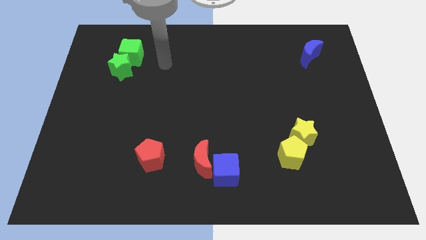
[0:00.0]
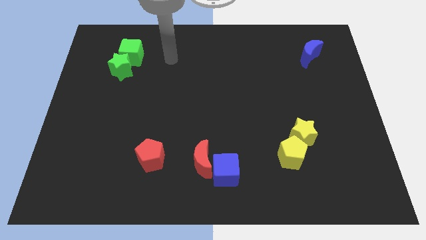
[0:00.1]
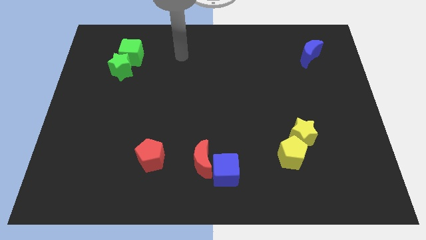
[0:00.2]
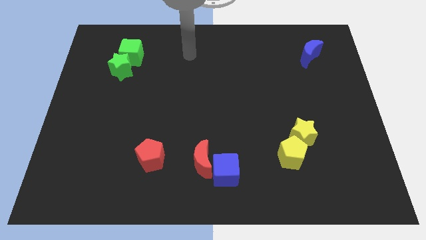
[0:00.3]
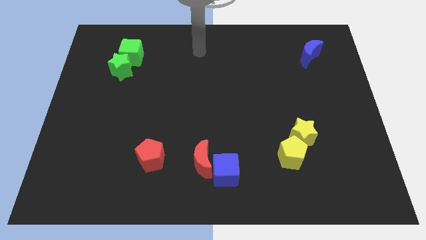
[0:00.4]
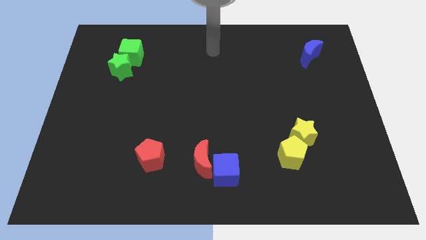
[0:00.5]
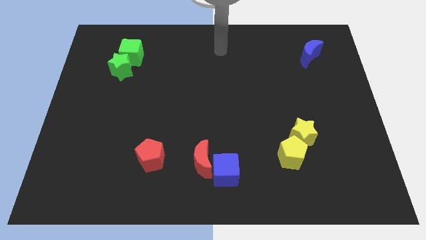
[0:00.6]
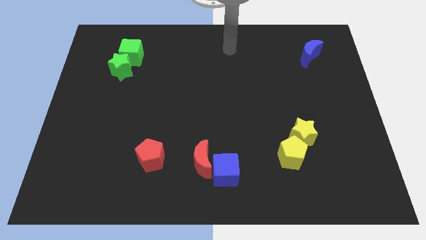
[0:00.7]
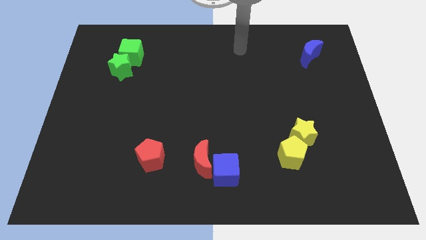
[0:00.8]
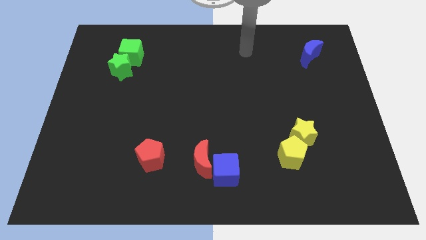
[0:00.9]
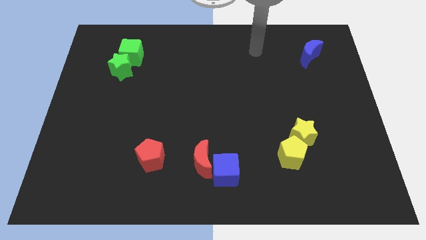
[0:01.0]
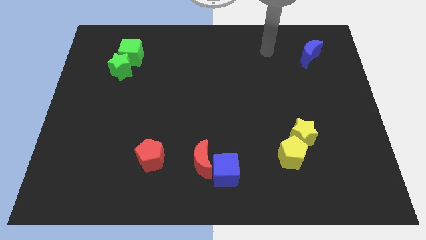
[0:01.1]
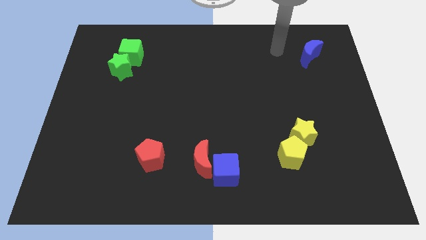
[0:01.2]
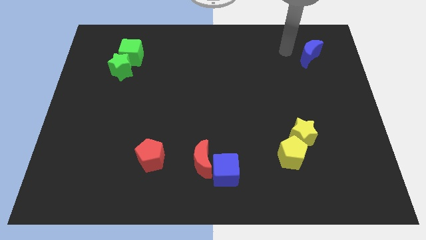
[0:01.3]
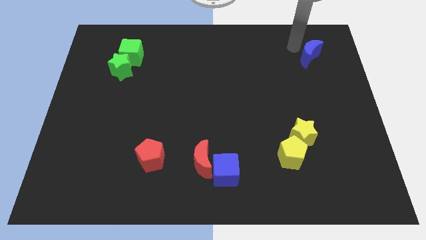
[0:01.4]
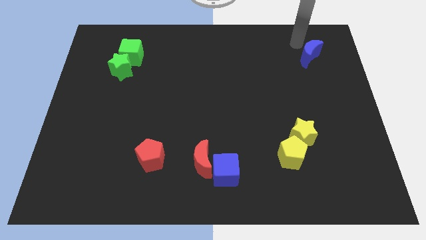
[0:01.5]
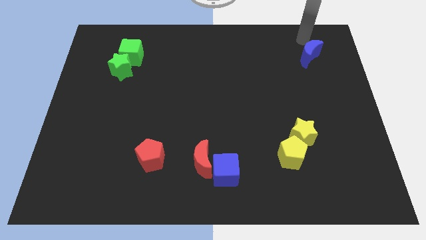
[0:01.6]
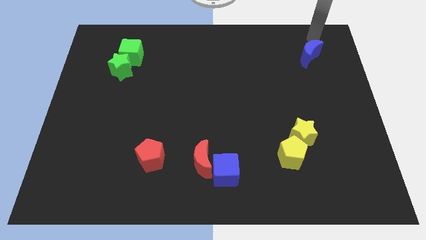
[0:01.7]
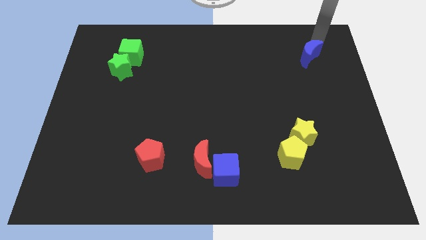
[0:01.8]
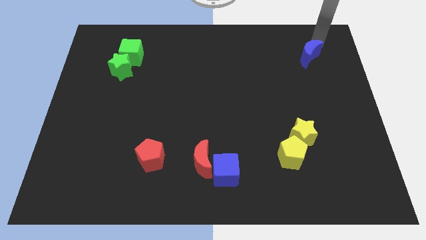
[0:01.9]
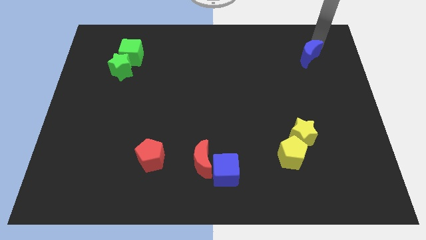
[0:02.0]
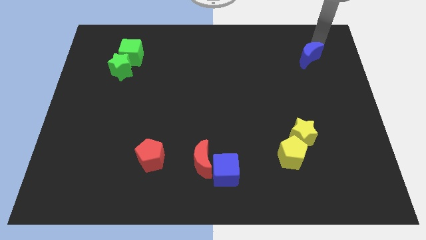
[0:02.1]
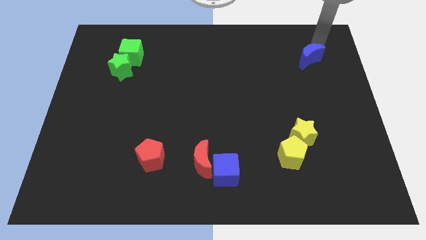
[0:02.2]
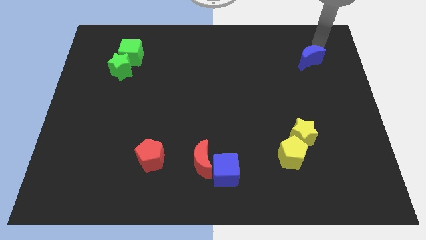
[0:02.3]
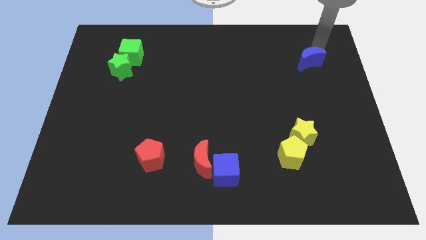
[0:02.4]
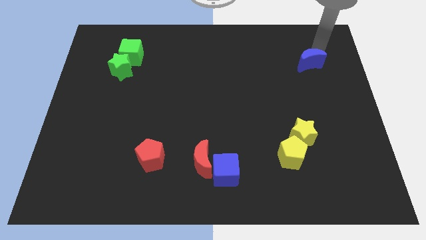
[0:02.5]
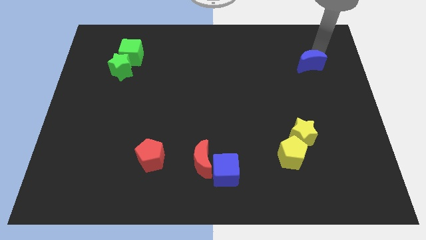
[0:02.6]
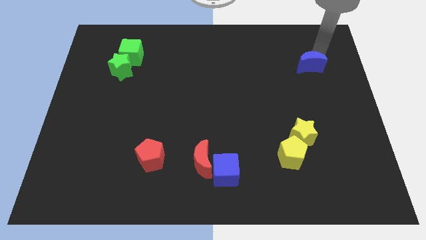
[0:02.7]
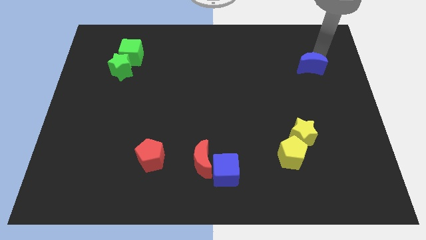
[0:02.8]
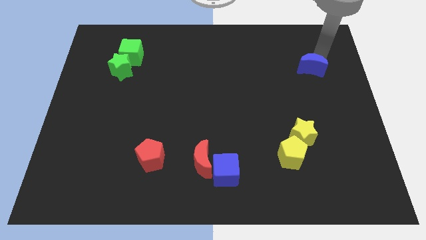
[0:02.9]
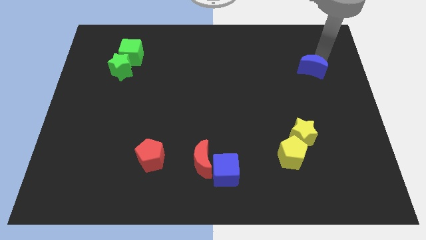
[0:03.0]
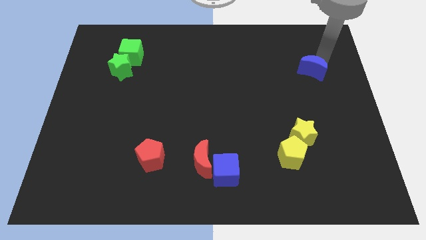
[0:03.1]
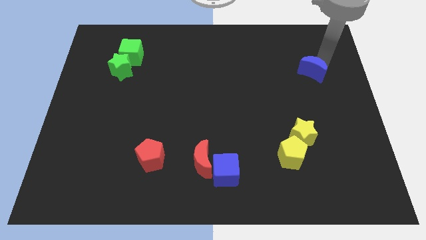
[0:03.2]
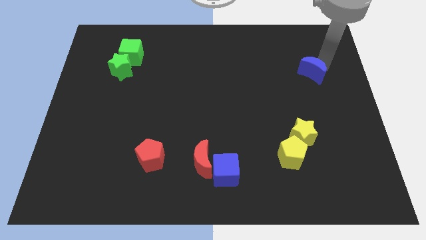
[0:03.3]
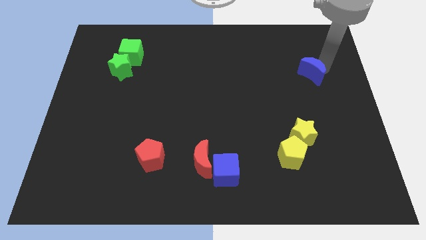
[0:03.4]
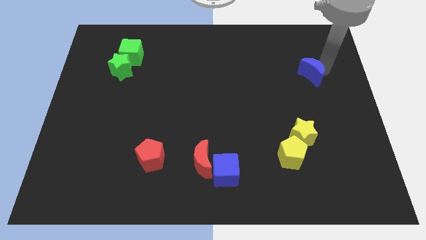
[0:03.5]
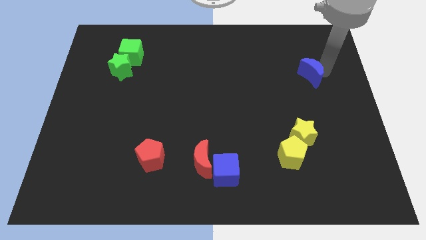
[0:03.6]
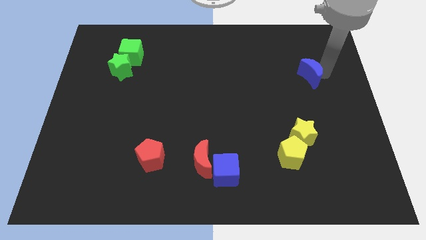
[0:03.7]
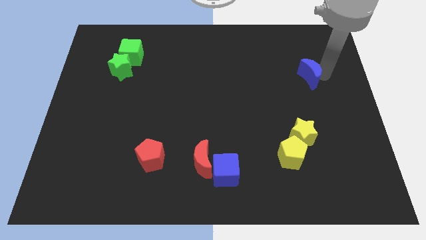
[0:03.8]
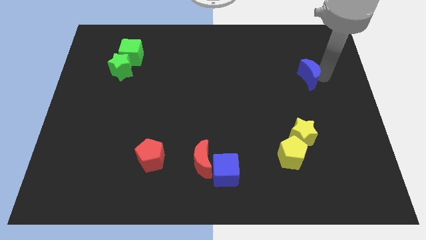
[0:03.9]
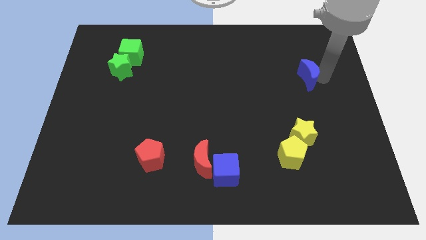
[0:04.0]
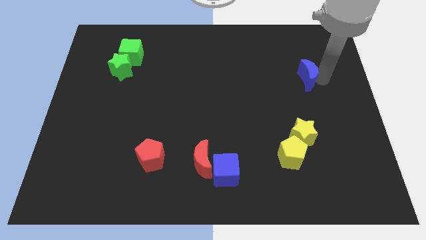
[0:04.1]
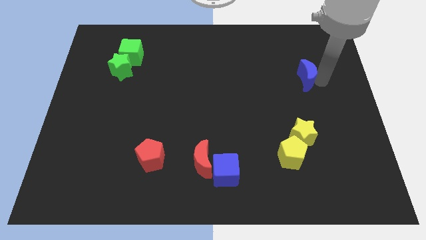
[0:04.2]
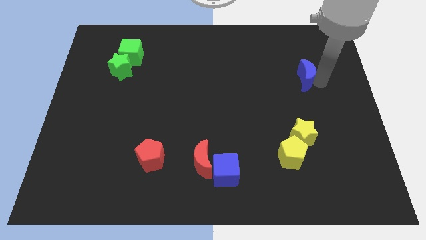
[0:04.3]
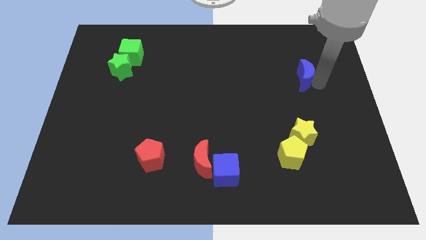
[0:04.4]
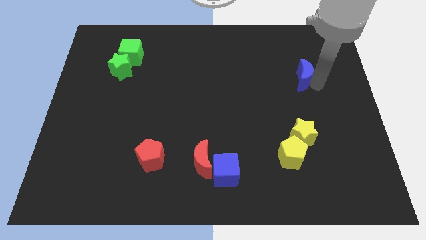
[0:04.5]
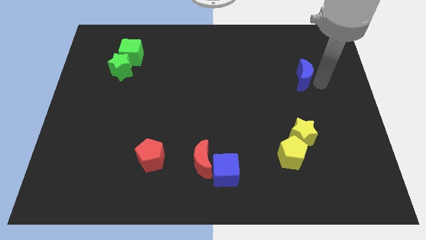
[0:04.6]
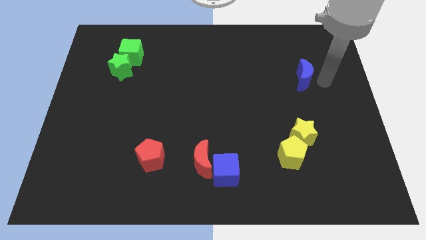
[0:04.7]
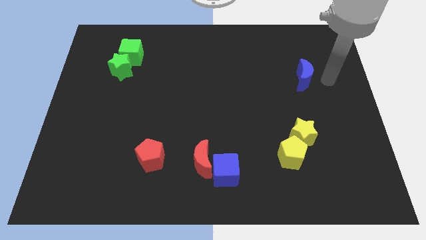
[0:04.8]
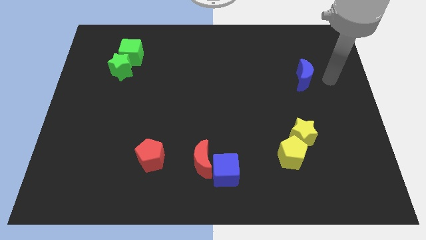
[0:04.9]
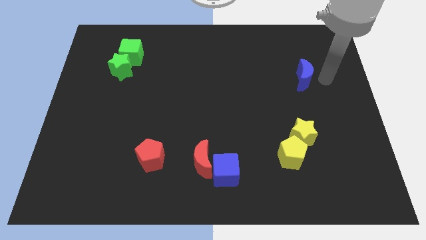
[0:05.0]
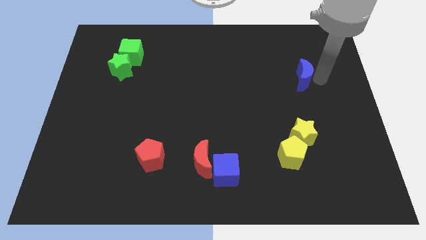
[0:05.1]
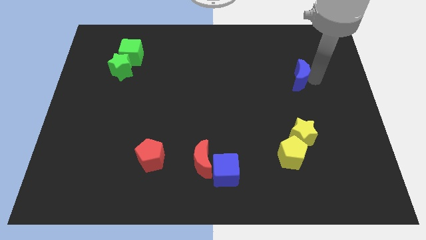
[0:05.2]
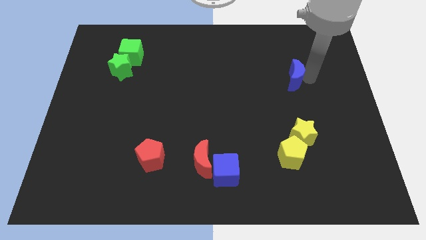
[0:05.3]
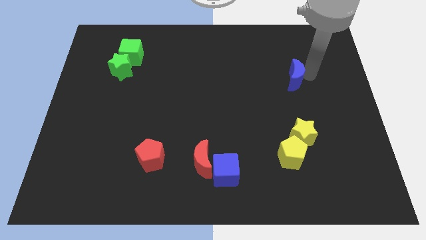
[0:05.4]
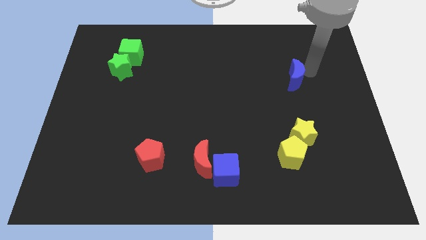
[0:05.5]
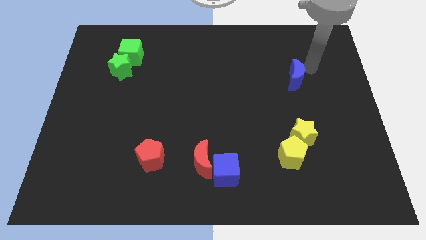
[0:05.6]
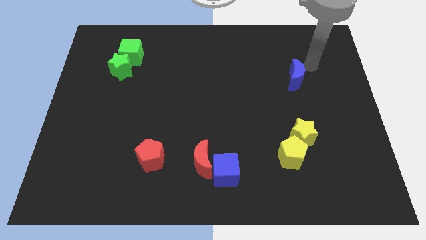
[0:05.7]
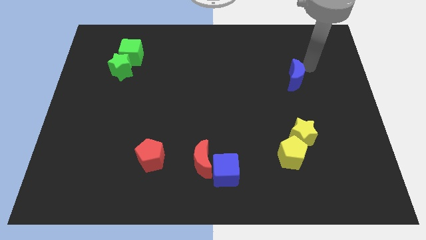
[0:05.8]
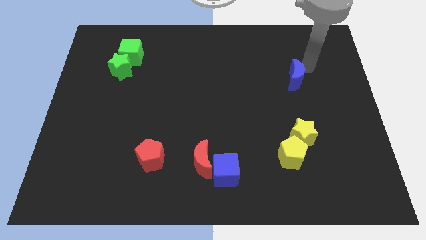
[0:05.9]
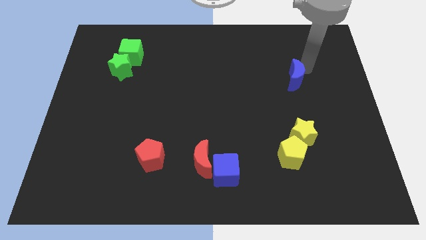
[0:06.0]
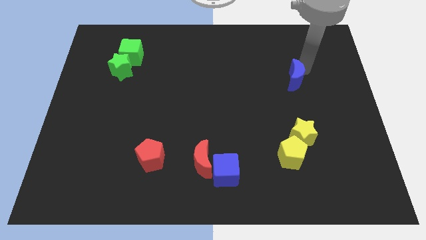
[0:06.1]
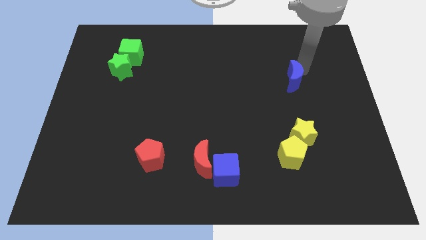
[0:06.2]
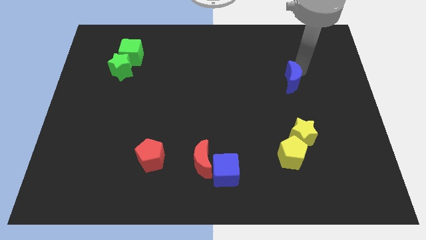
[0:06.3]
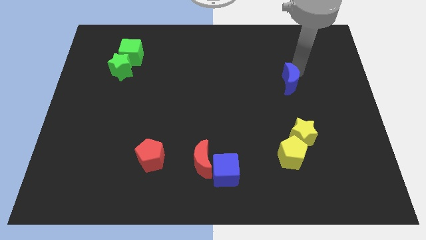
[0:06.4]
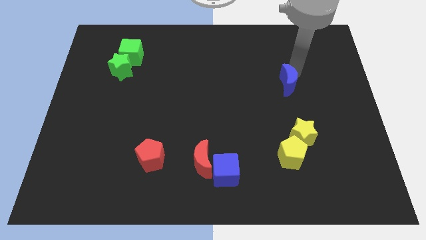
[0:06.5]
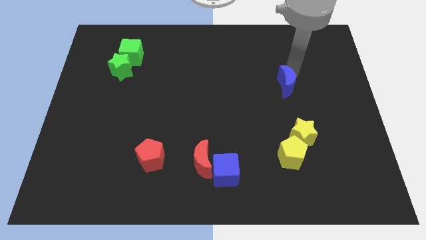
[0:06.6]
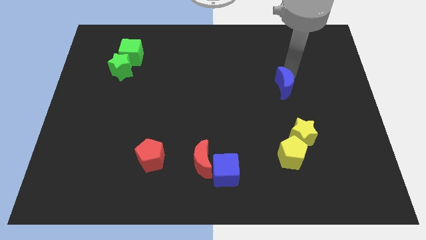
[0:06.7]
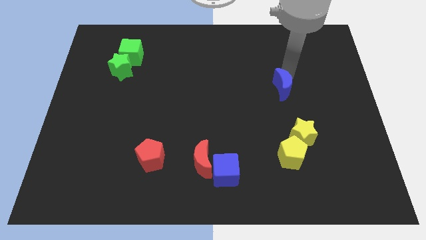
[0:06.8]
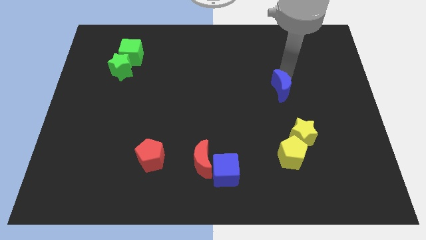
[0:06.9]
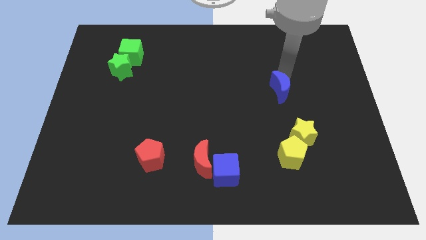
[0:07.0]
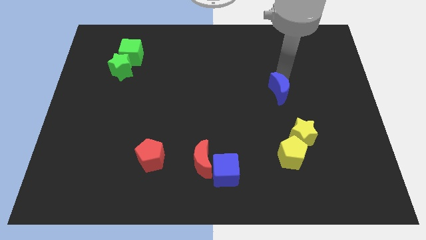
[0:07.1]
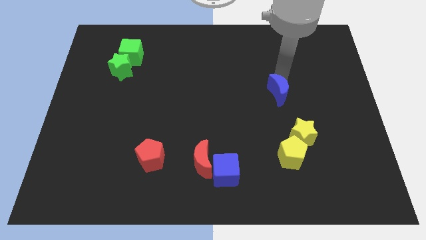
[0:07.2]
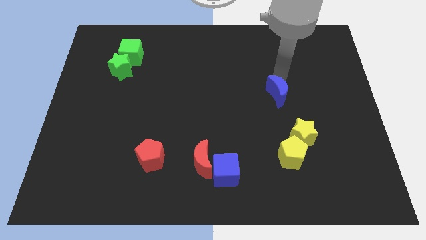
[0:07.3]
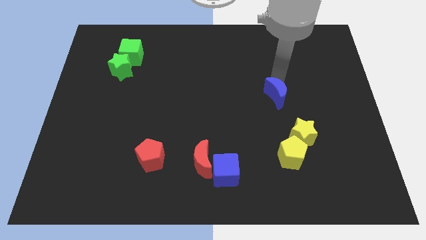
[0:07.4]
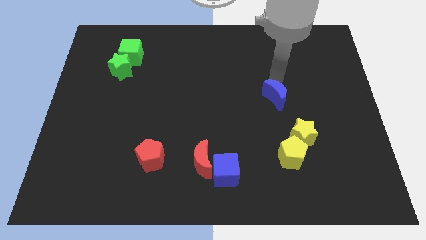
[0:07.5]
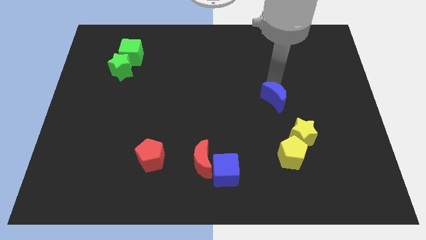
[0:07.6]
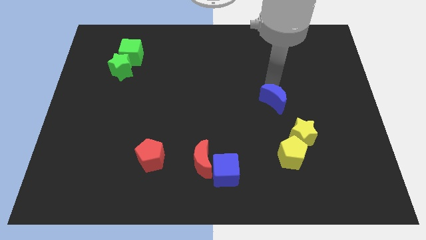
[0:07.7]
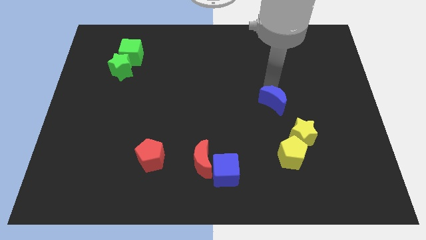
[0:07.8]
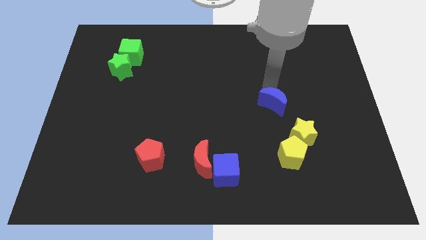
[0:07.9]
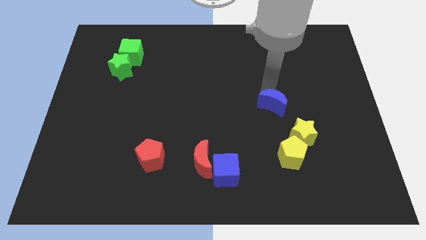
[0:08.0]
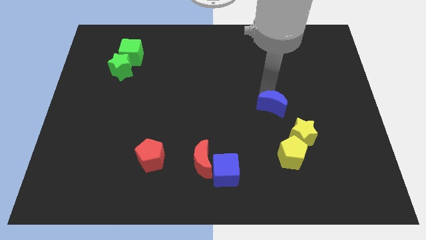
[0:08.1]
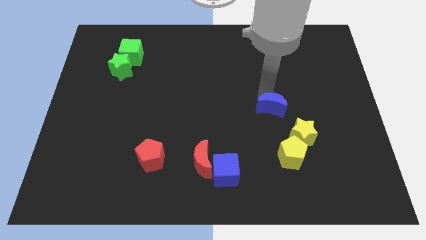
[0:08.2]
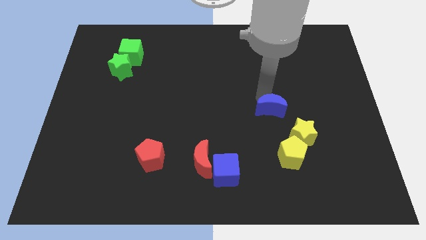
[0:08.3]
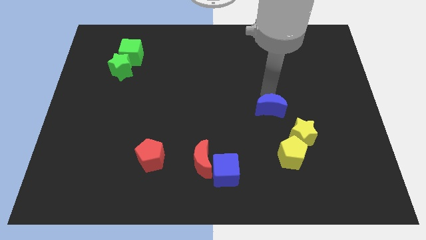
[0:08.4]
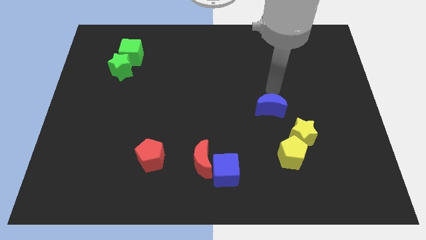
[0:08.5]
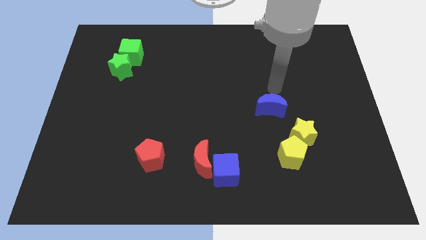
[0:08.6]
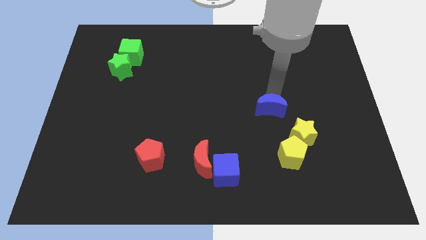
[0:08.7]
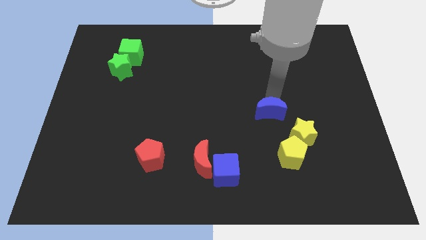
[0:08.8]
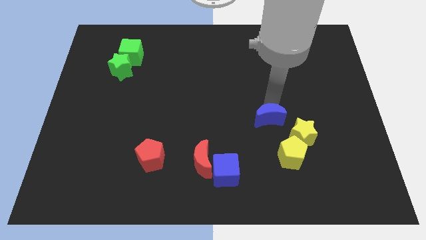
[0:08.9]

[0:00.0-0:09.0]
slide the blue moon to the top left of the yellow pentagon
